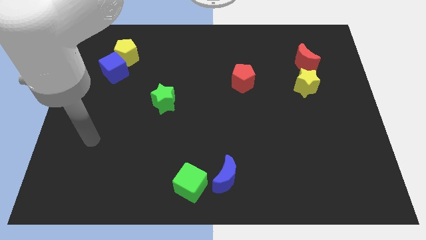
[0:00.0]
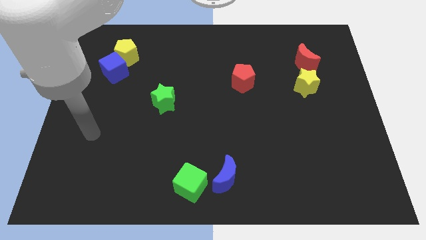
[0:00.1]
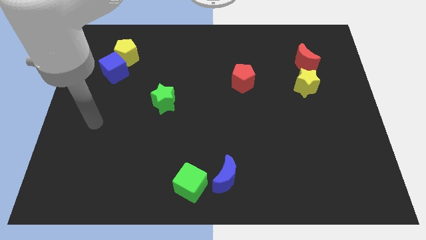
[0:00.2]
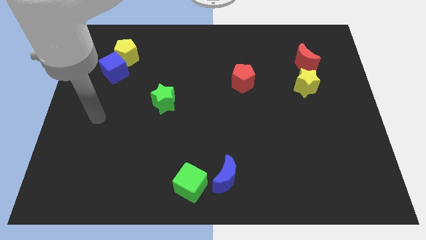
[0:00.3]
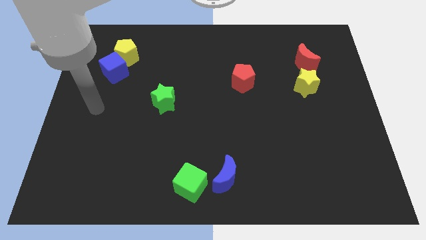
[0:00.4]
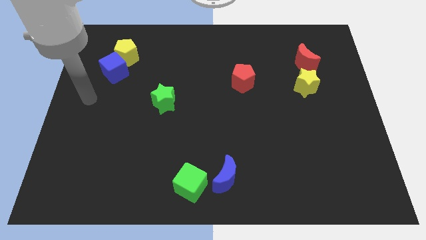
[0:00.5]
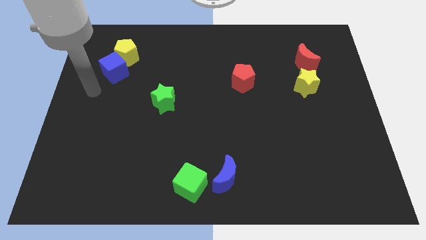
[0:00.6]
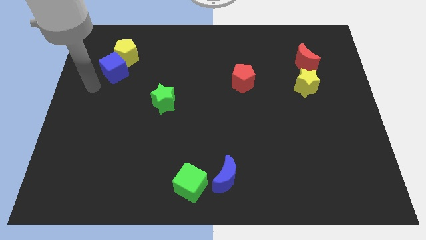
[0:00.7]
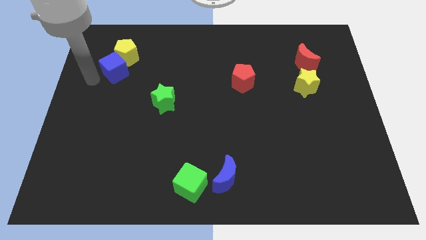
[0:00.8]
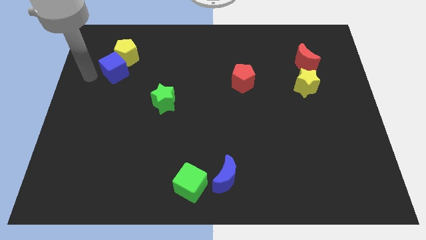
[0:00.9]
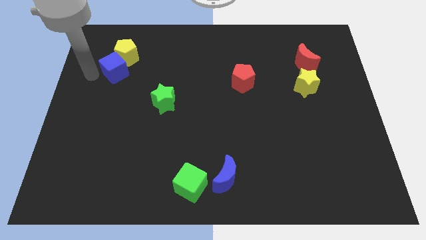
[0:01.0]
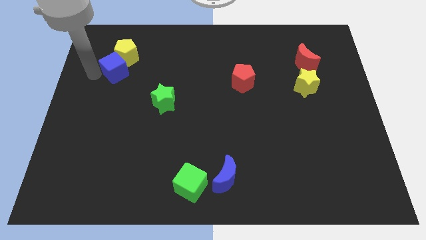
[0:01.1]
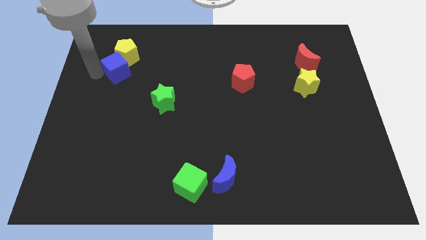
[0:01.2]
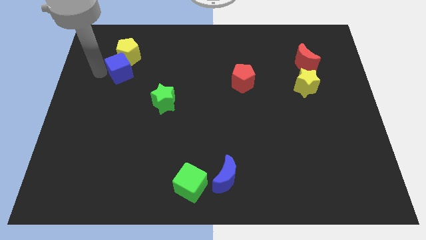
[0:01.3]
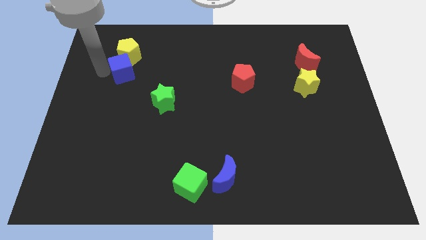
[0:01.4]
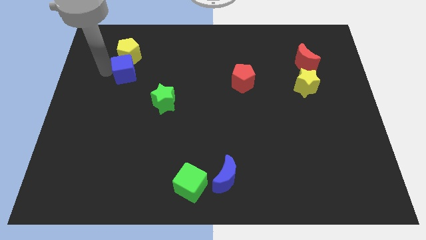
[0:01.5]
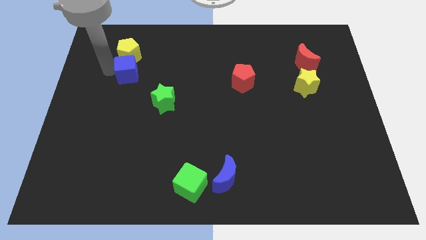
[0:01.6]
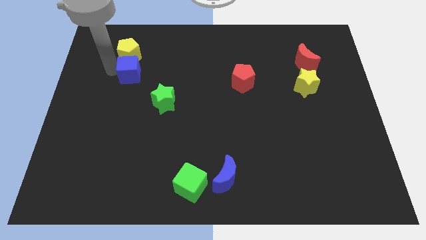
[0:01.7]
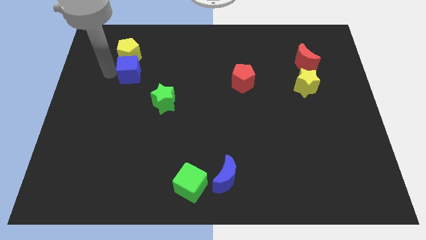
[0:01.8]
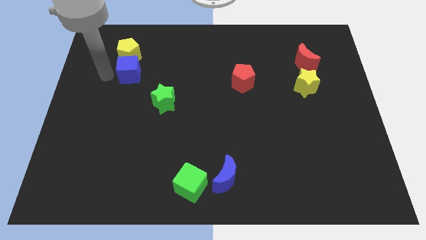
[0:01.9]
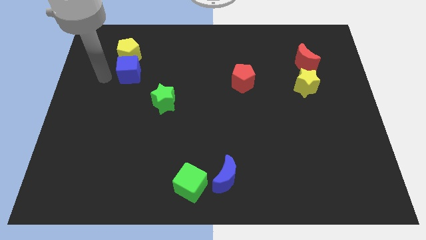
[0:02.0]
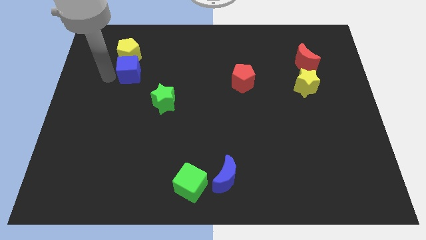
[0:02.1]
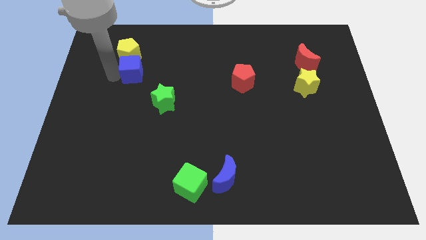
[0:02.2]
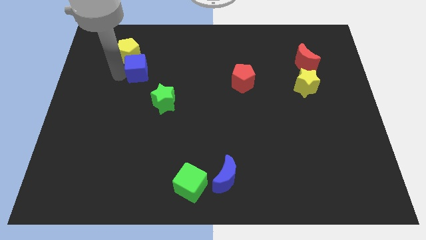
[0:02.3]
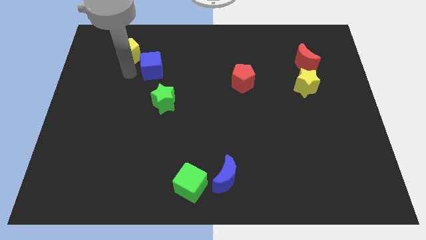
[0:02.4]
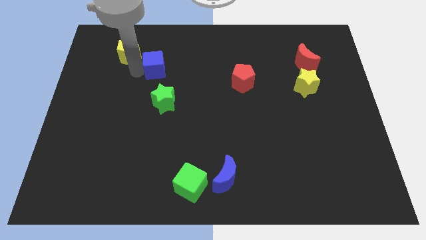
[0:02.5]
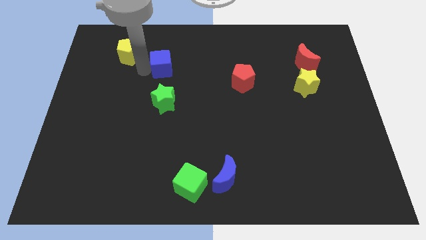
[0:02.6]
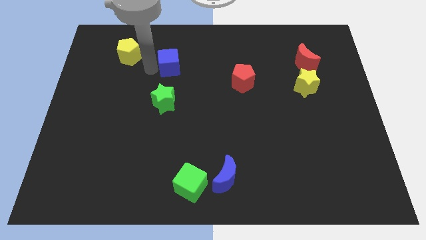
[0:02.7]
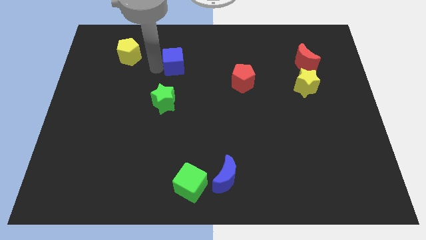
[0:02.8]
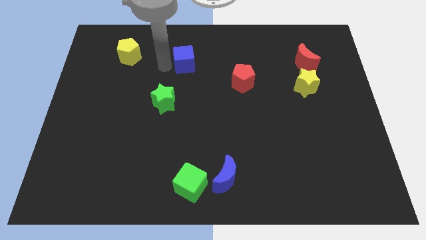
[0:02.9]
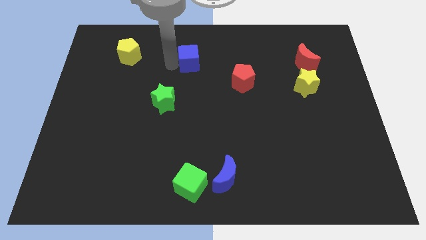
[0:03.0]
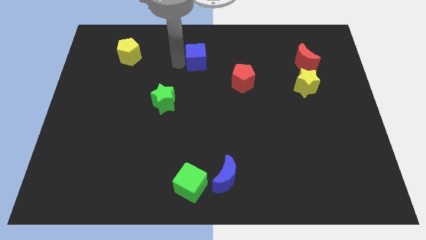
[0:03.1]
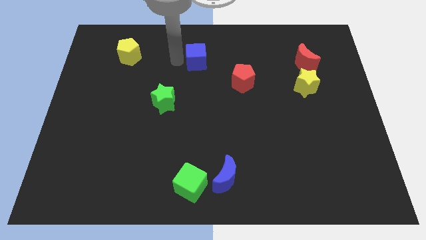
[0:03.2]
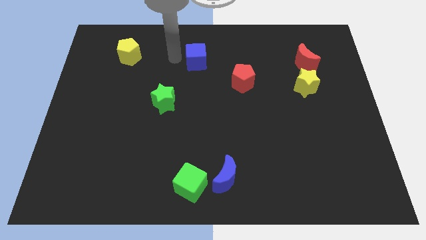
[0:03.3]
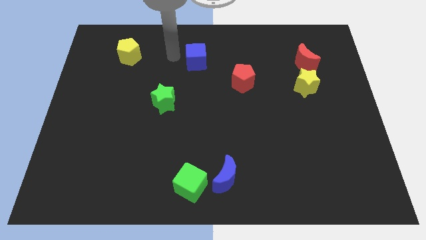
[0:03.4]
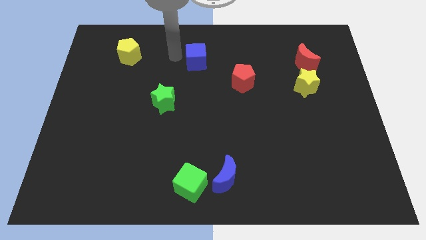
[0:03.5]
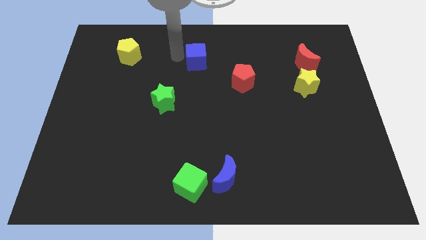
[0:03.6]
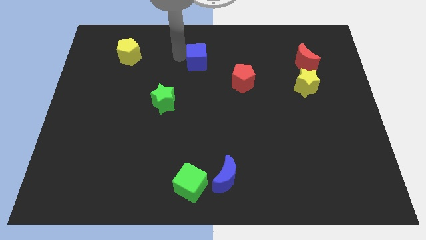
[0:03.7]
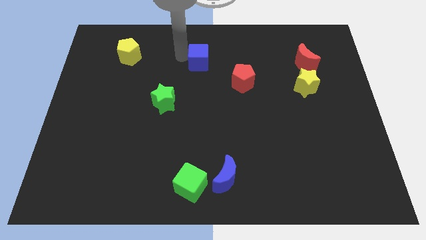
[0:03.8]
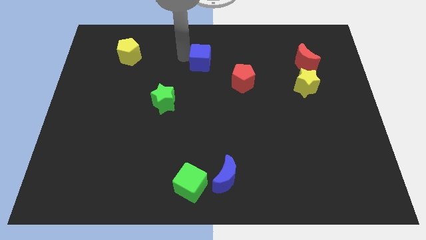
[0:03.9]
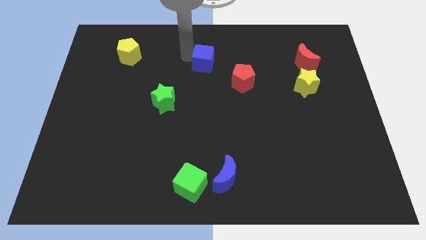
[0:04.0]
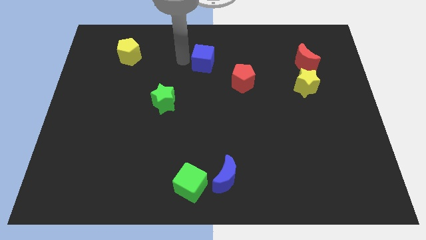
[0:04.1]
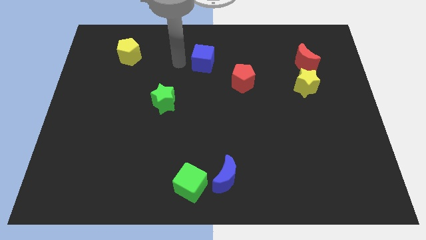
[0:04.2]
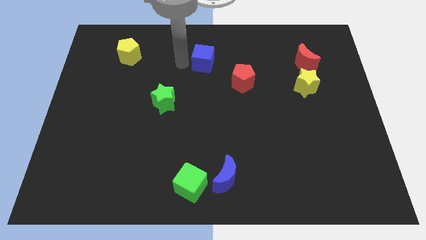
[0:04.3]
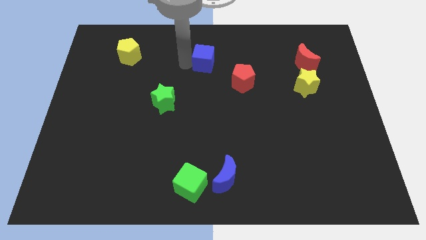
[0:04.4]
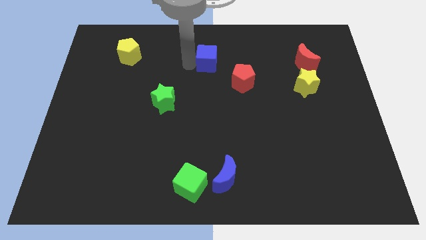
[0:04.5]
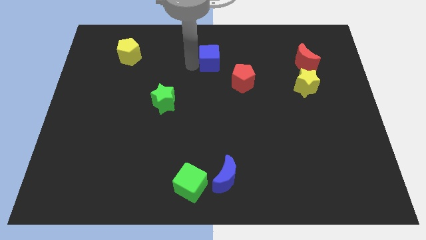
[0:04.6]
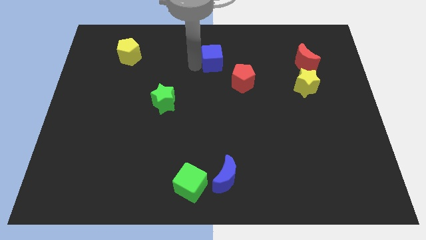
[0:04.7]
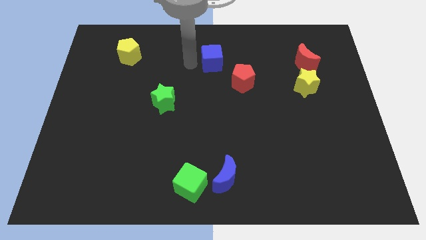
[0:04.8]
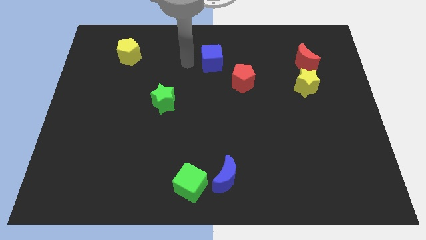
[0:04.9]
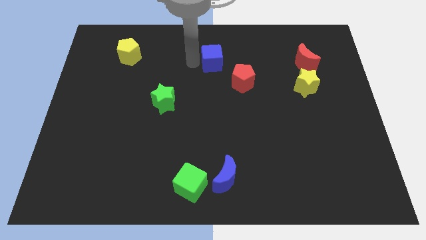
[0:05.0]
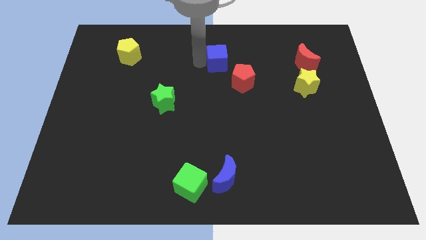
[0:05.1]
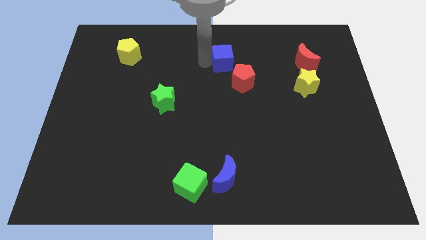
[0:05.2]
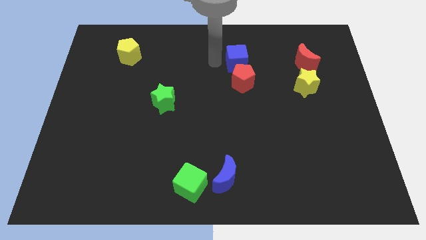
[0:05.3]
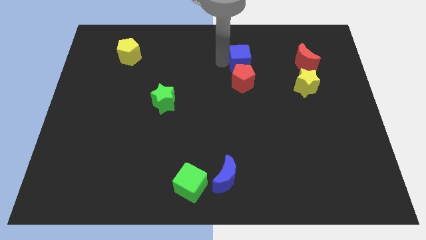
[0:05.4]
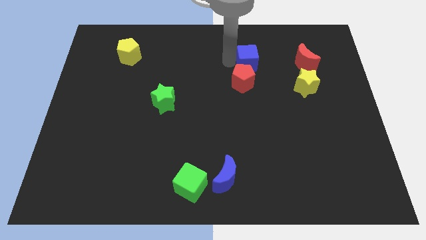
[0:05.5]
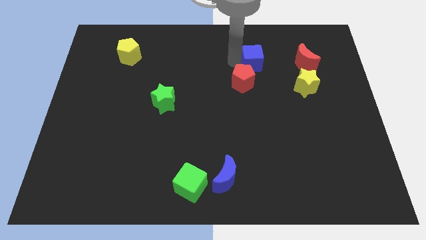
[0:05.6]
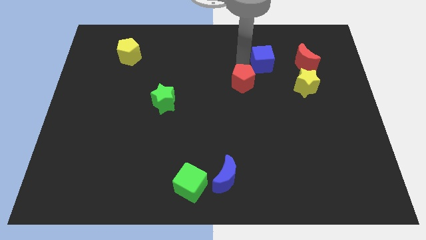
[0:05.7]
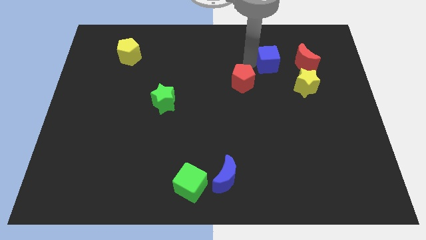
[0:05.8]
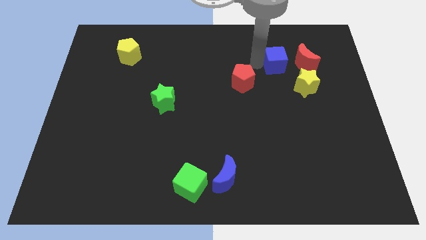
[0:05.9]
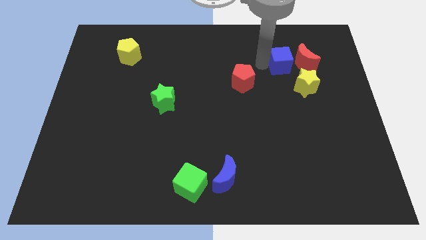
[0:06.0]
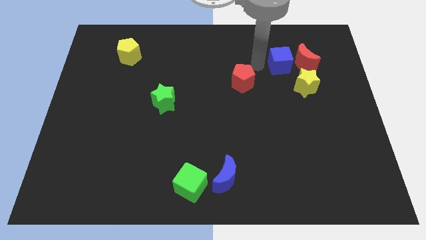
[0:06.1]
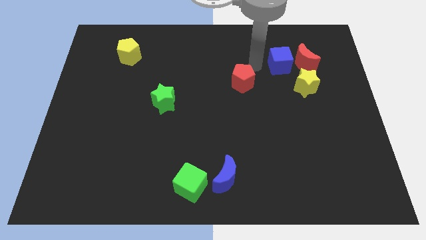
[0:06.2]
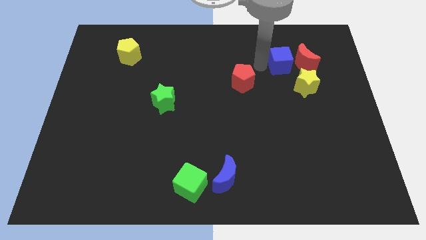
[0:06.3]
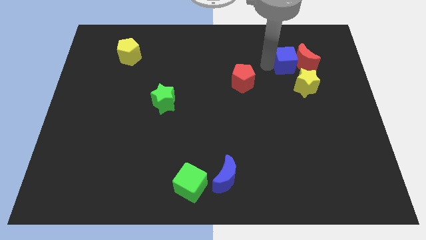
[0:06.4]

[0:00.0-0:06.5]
move the blue cube towards the red moon

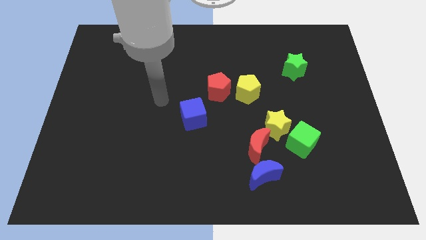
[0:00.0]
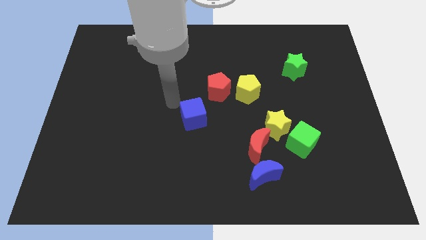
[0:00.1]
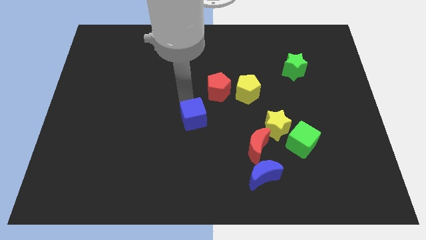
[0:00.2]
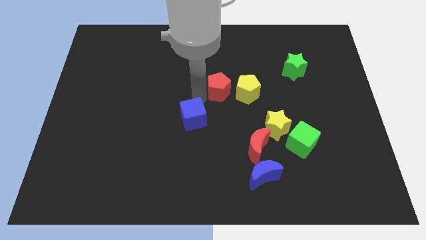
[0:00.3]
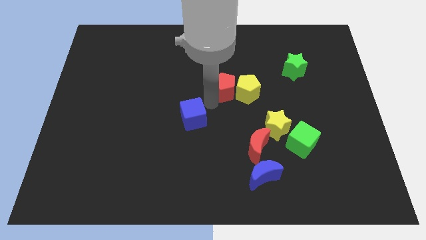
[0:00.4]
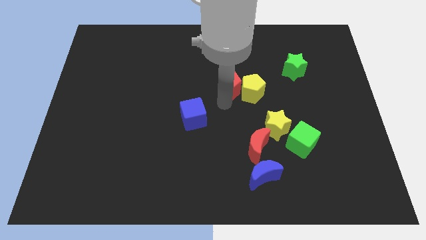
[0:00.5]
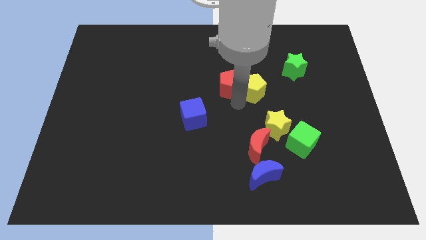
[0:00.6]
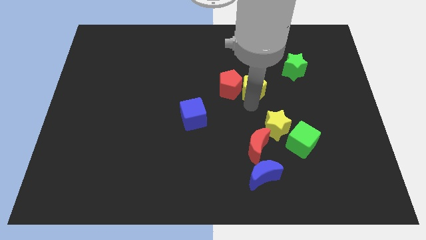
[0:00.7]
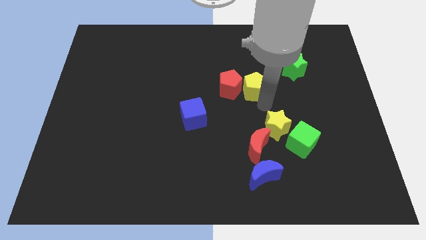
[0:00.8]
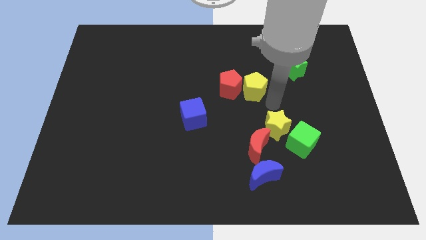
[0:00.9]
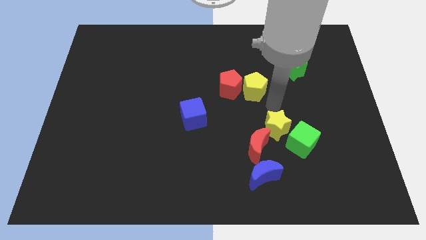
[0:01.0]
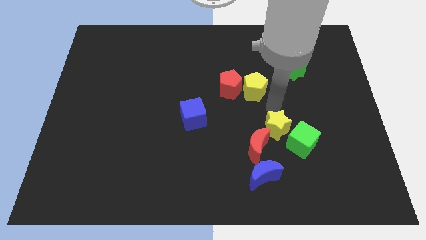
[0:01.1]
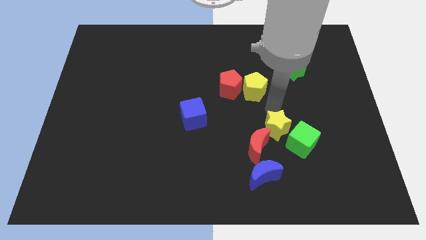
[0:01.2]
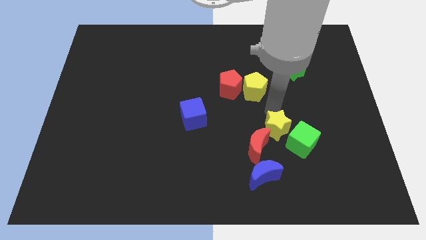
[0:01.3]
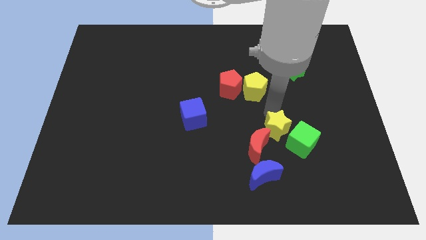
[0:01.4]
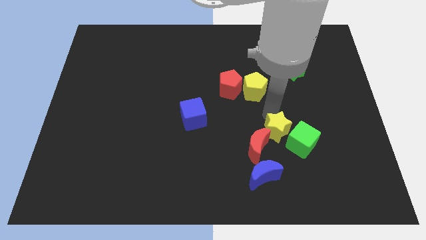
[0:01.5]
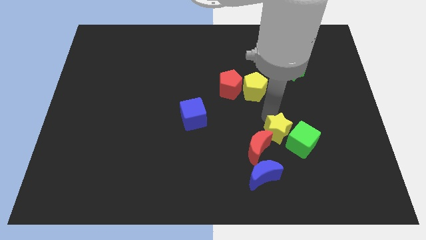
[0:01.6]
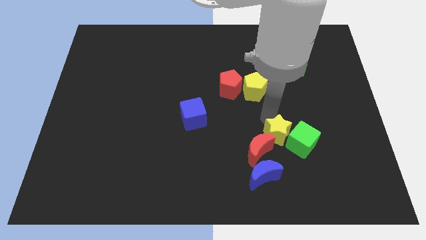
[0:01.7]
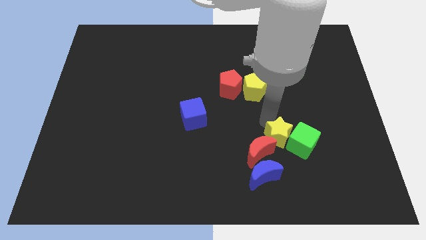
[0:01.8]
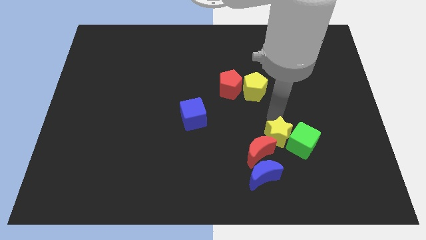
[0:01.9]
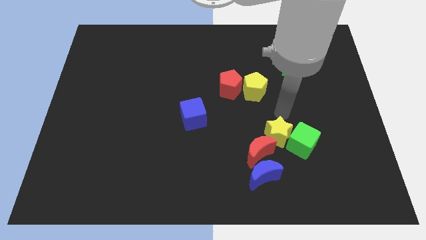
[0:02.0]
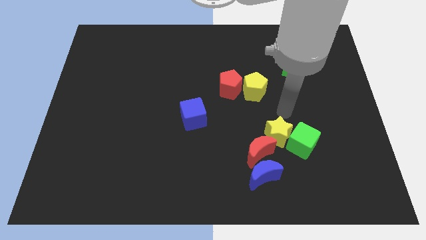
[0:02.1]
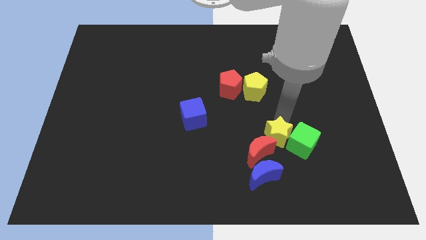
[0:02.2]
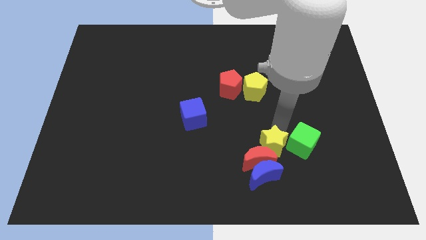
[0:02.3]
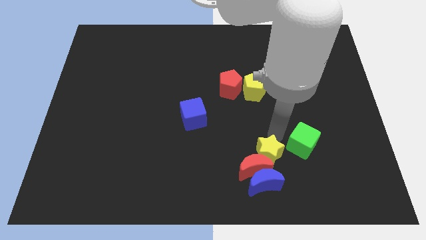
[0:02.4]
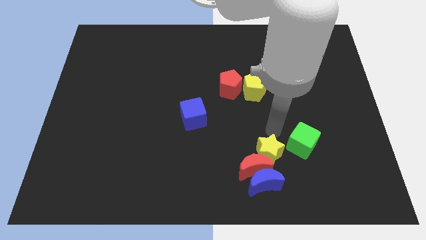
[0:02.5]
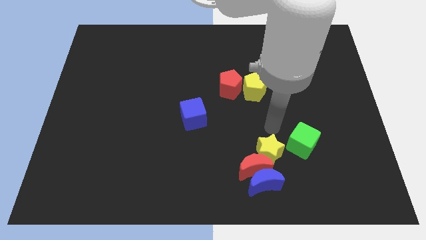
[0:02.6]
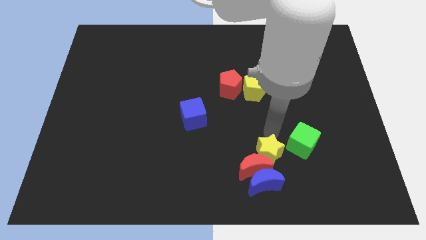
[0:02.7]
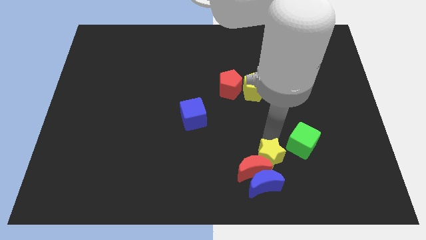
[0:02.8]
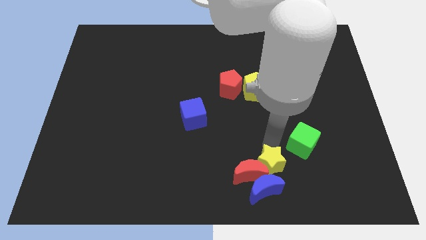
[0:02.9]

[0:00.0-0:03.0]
put the yellow star close to the blue moon
